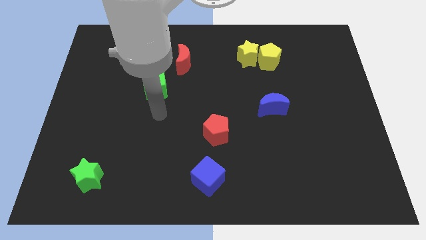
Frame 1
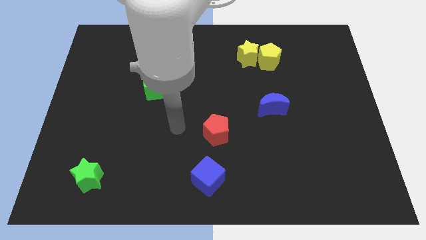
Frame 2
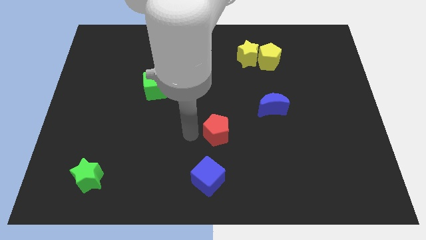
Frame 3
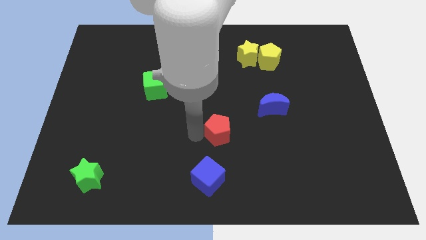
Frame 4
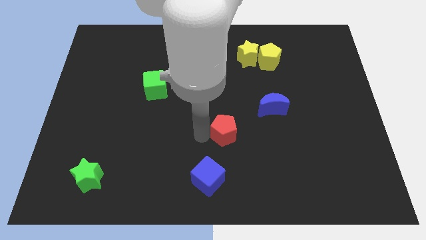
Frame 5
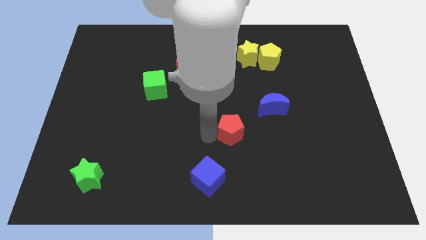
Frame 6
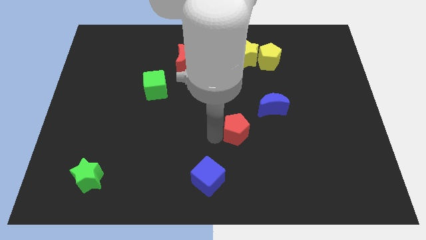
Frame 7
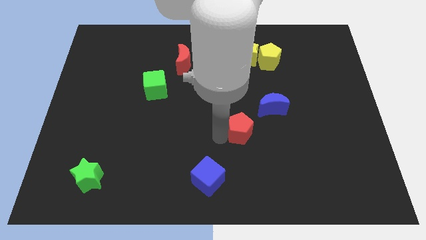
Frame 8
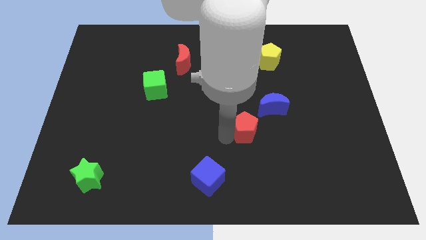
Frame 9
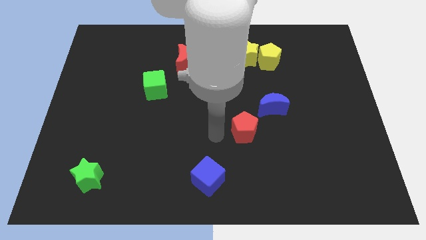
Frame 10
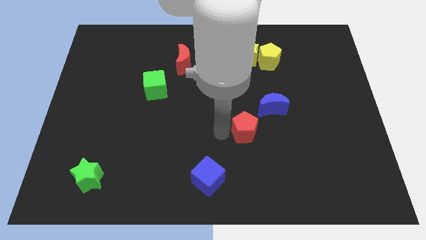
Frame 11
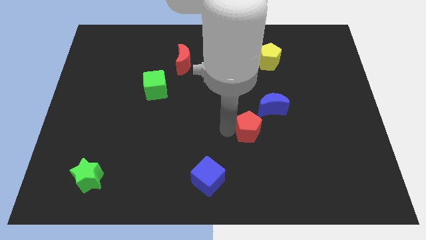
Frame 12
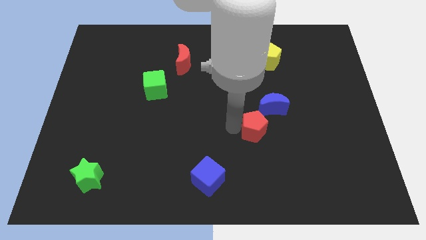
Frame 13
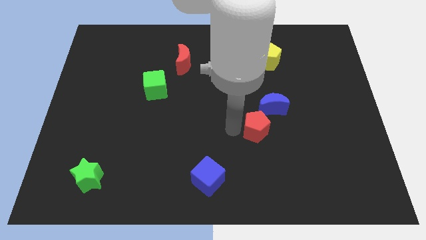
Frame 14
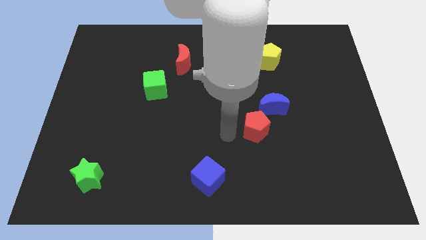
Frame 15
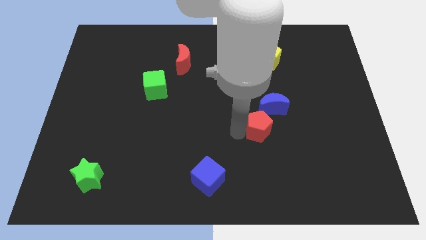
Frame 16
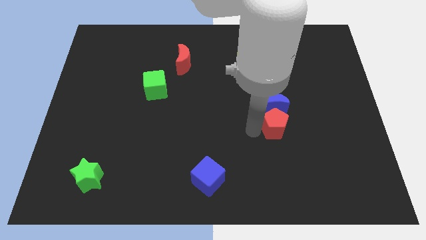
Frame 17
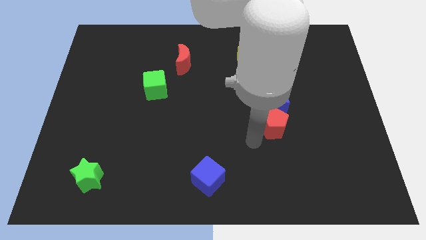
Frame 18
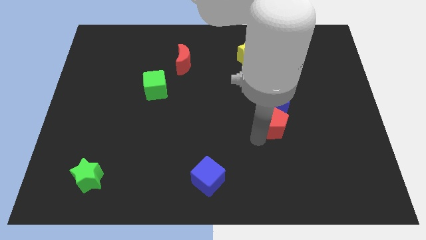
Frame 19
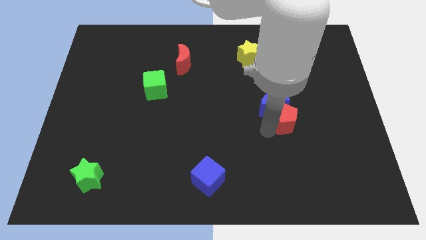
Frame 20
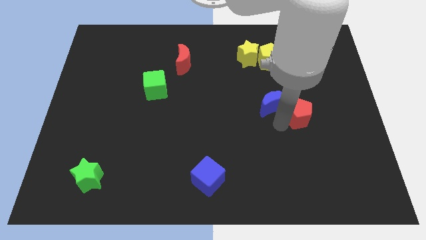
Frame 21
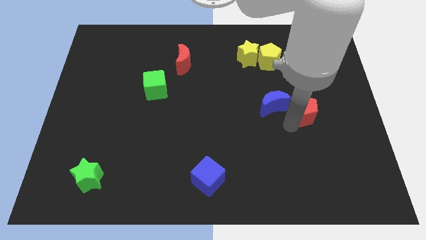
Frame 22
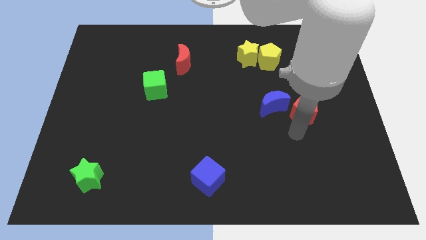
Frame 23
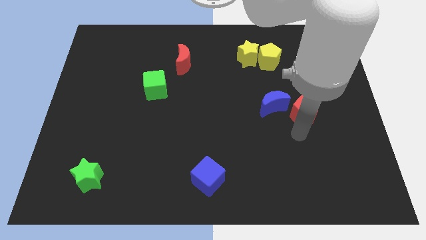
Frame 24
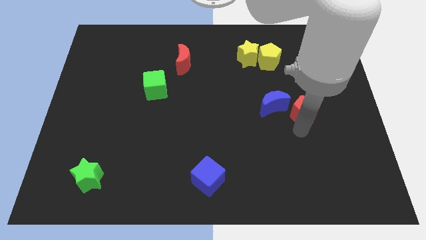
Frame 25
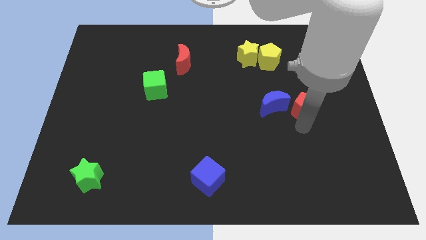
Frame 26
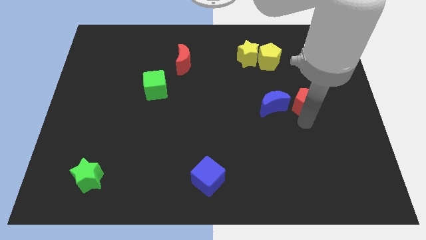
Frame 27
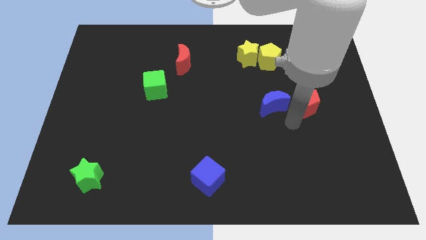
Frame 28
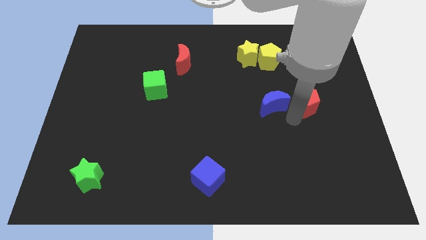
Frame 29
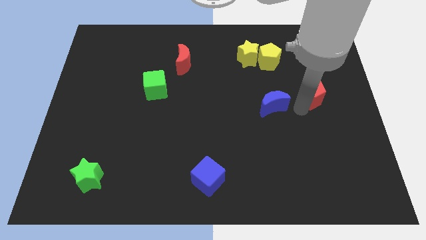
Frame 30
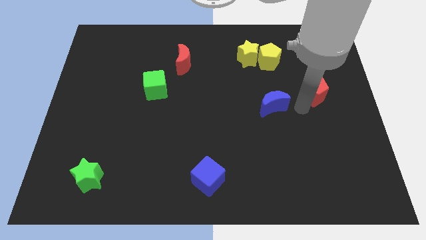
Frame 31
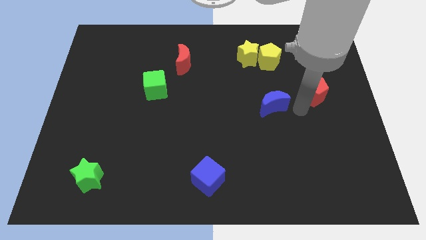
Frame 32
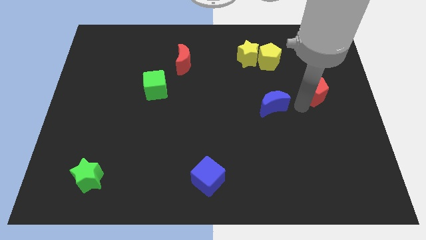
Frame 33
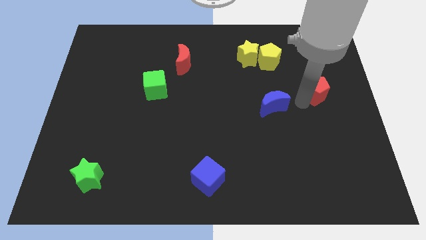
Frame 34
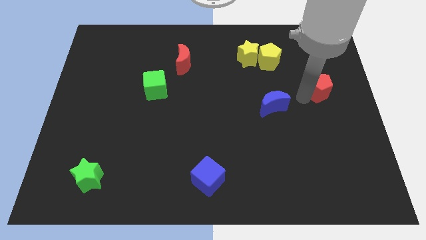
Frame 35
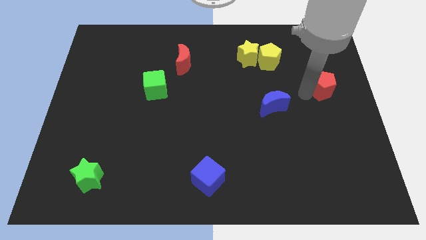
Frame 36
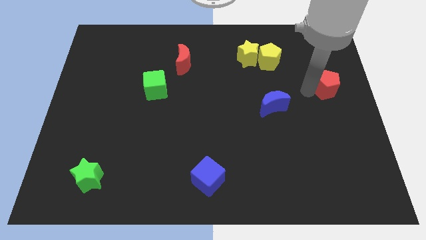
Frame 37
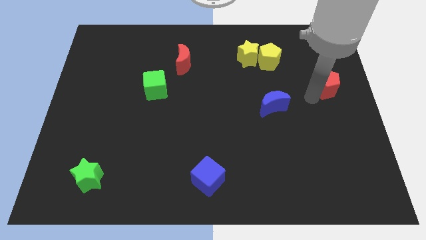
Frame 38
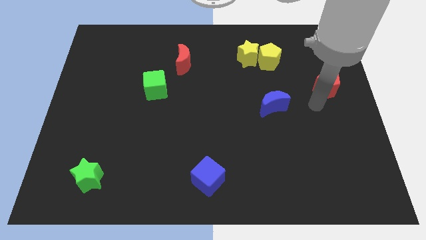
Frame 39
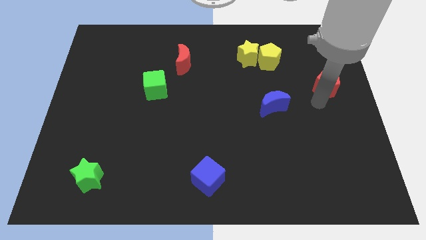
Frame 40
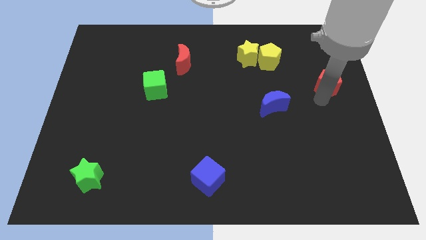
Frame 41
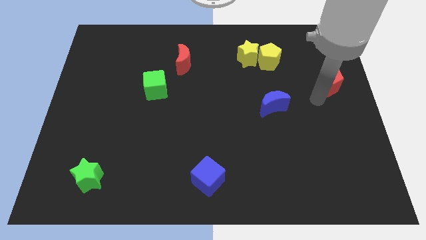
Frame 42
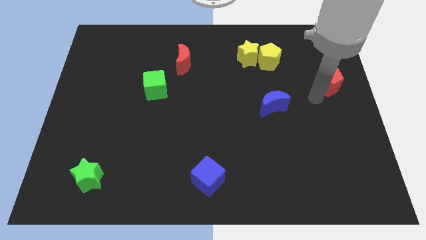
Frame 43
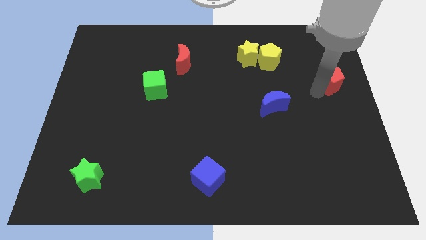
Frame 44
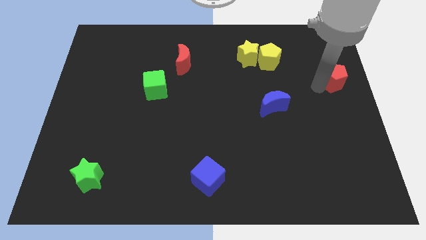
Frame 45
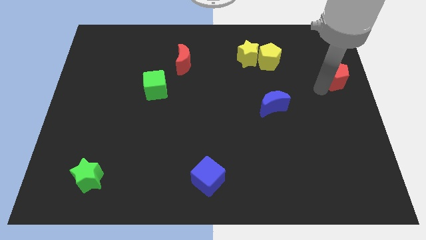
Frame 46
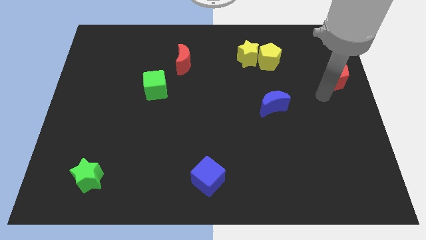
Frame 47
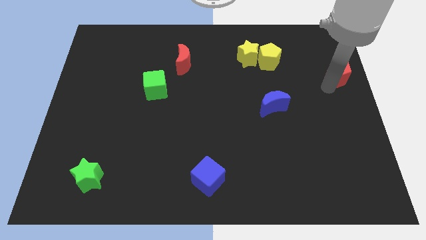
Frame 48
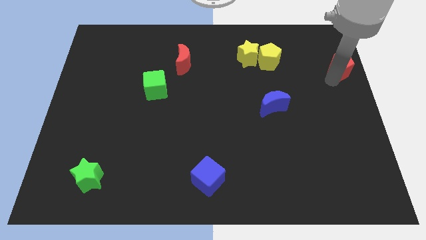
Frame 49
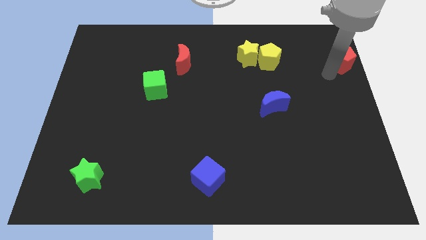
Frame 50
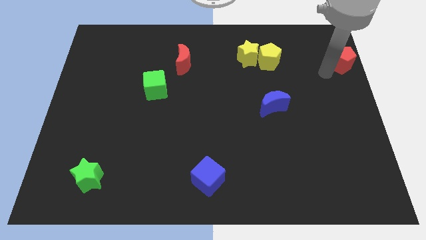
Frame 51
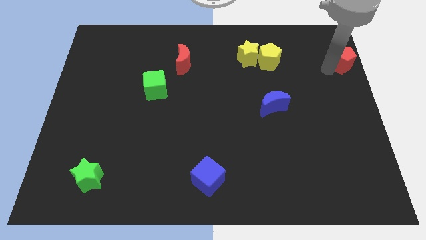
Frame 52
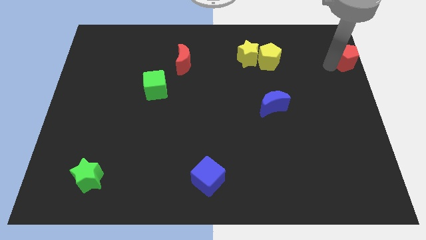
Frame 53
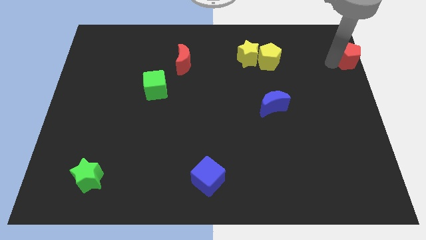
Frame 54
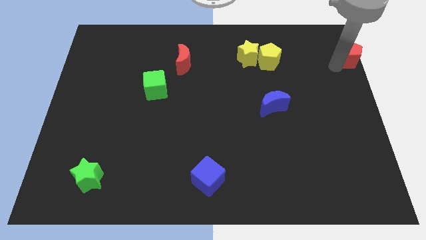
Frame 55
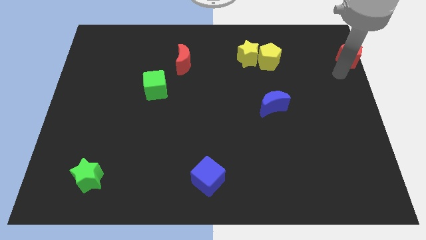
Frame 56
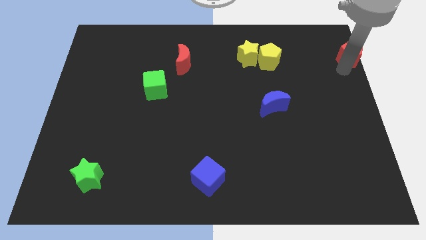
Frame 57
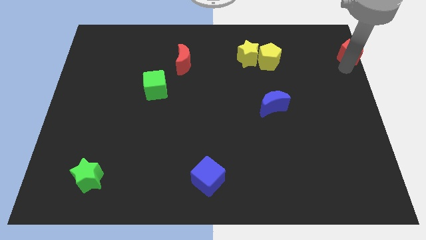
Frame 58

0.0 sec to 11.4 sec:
put the red pentagon to the top right corner

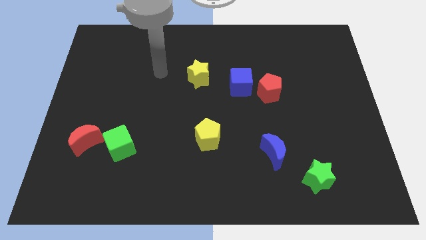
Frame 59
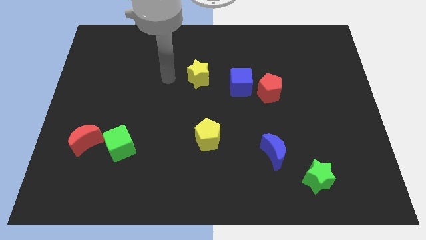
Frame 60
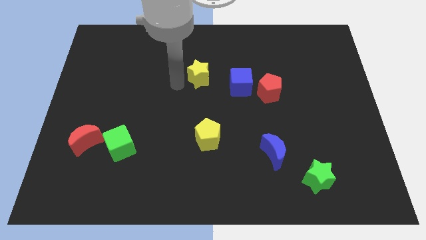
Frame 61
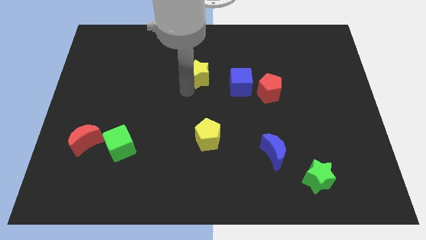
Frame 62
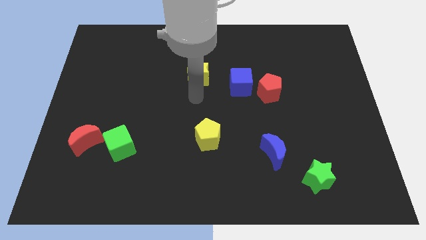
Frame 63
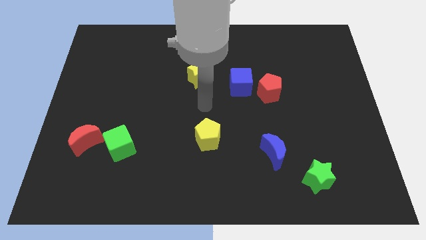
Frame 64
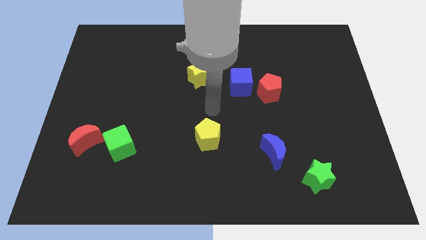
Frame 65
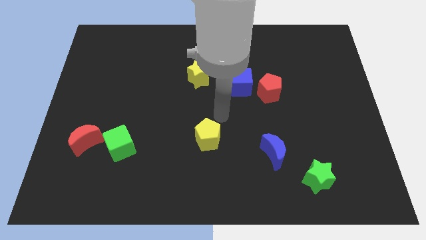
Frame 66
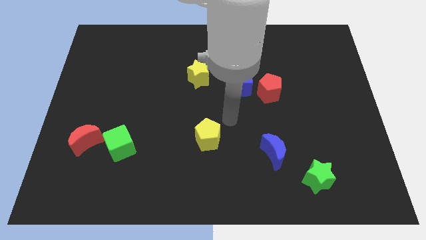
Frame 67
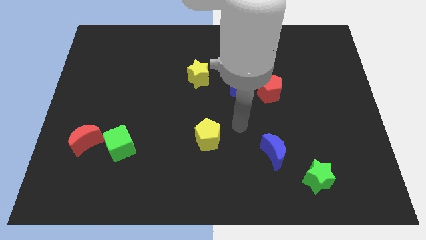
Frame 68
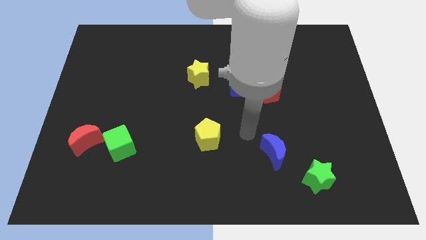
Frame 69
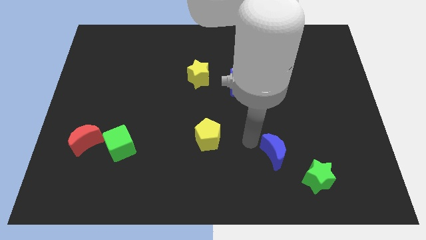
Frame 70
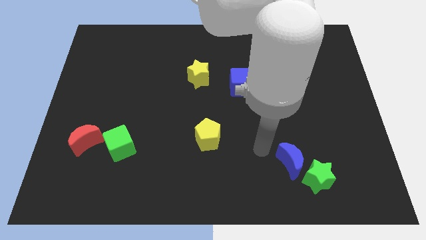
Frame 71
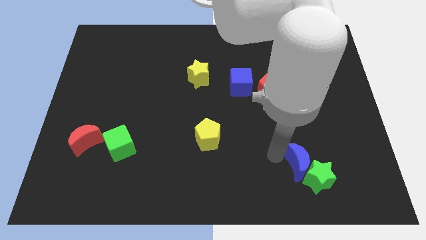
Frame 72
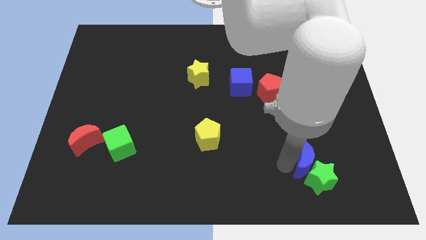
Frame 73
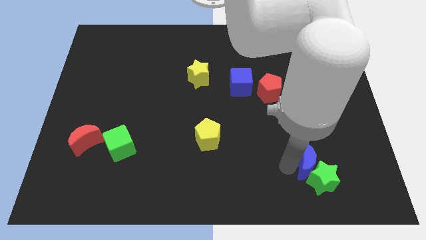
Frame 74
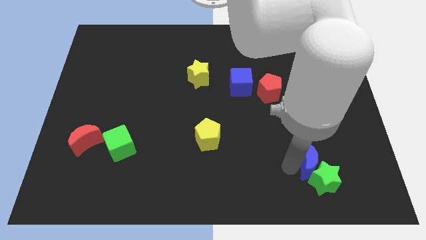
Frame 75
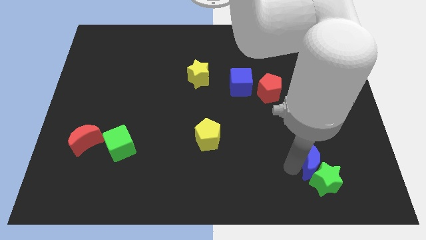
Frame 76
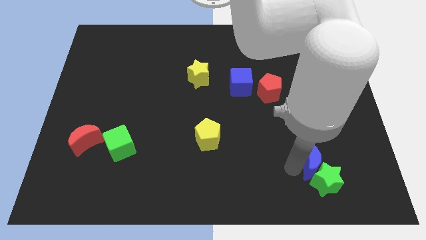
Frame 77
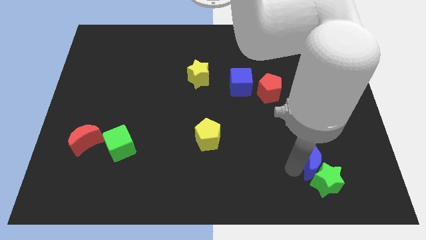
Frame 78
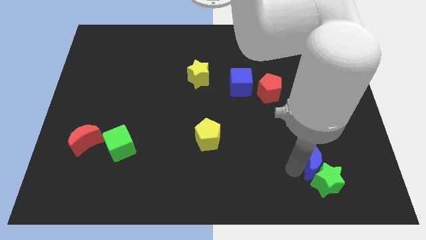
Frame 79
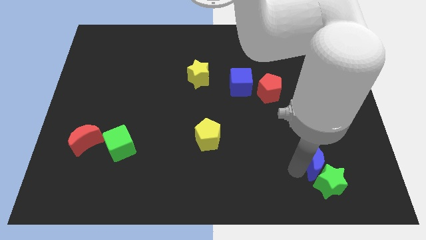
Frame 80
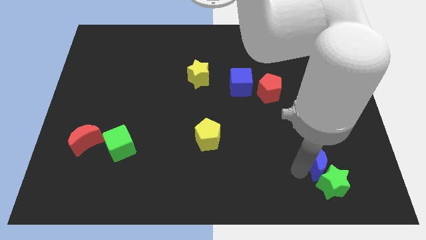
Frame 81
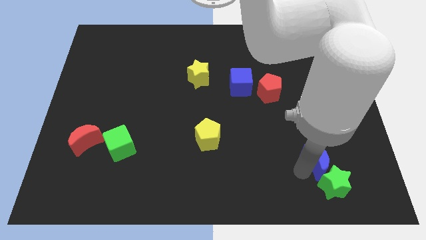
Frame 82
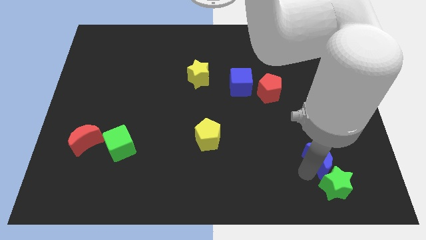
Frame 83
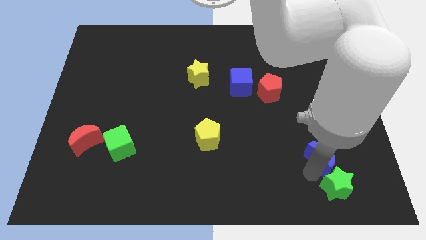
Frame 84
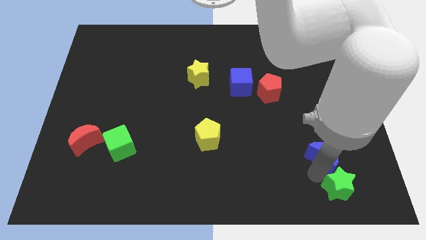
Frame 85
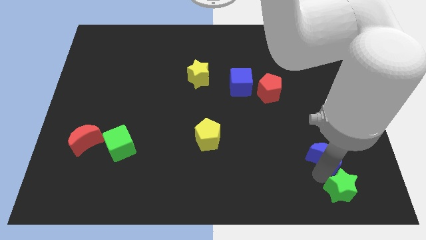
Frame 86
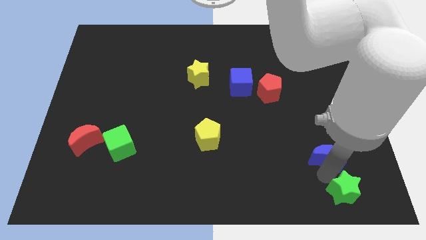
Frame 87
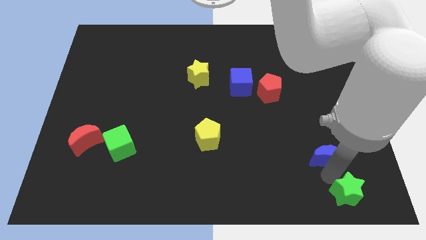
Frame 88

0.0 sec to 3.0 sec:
move the green star to the bottom right
